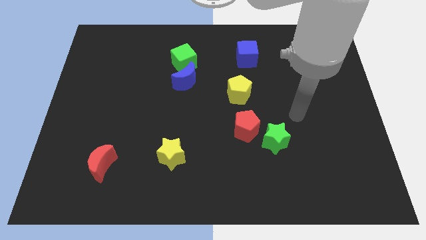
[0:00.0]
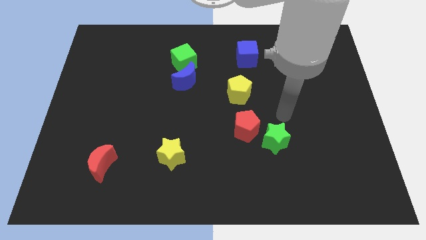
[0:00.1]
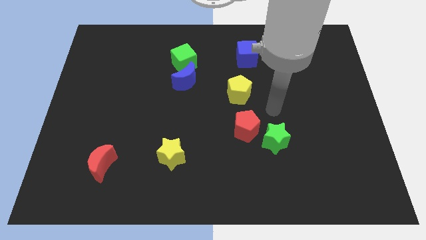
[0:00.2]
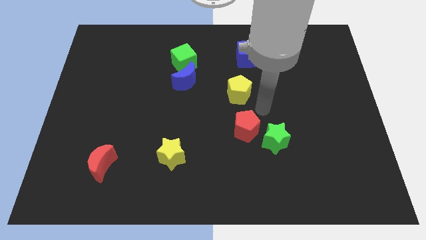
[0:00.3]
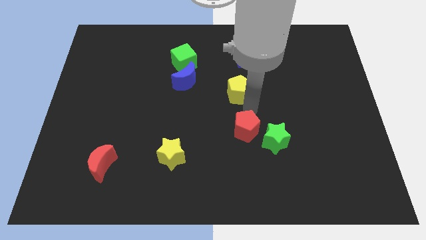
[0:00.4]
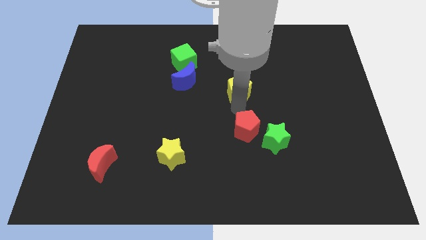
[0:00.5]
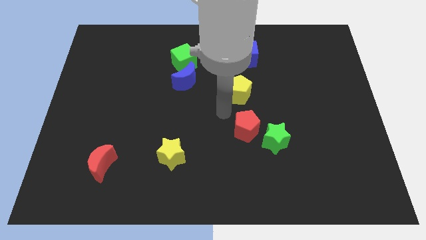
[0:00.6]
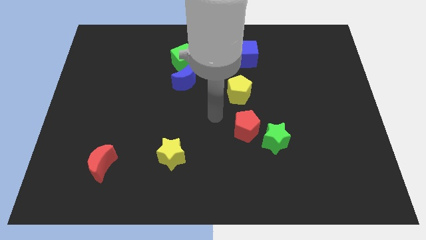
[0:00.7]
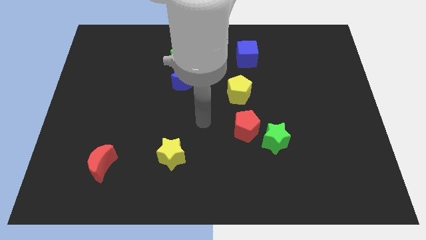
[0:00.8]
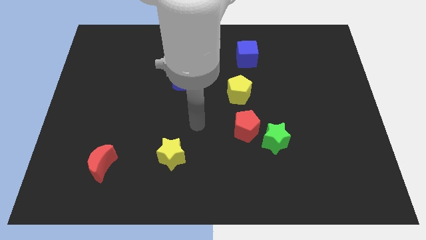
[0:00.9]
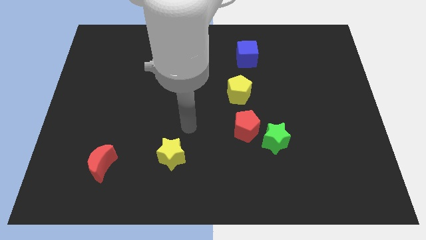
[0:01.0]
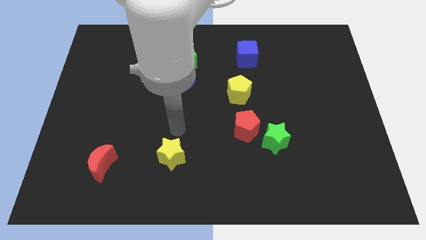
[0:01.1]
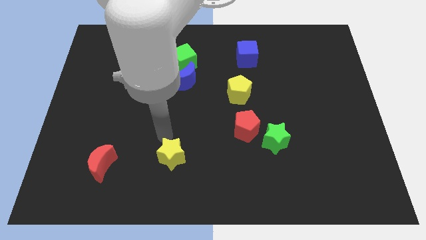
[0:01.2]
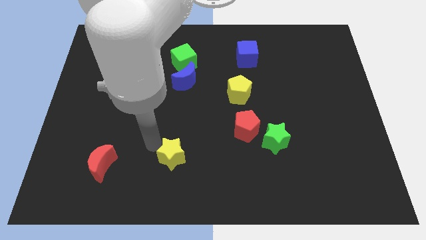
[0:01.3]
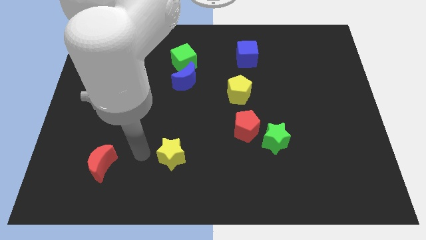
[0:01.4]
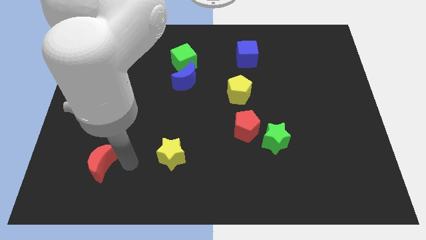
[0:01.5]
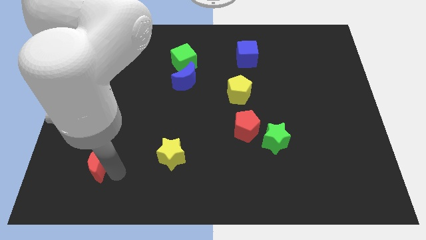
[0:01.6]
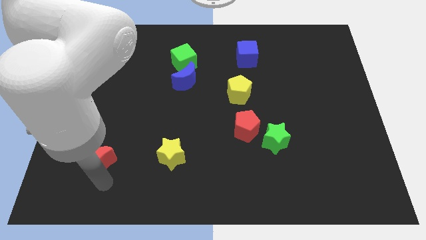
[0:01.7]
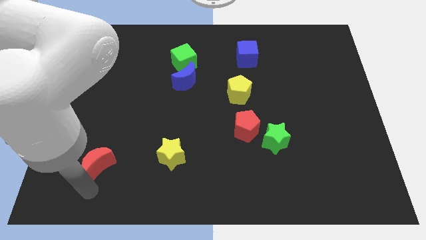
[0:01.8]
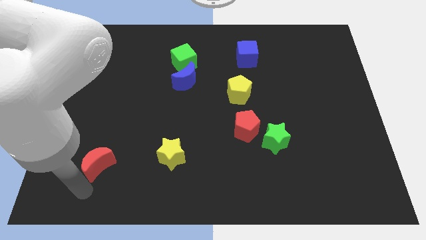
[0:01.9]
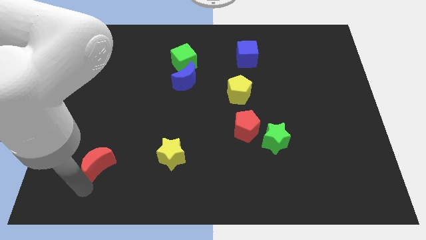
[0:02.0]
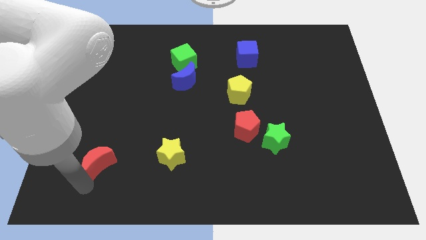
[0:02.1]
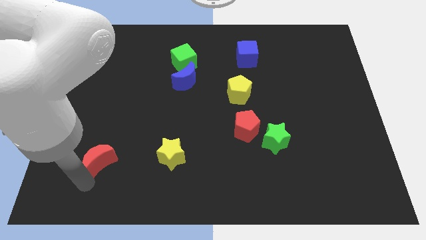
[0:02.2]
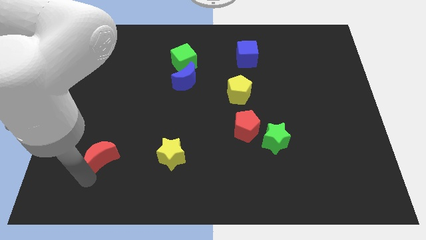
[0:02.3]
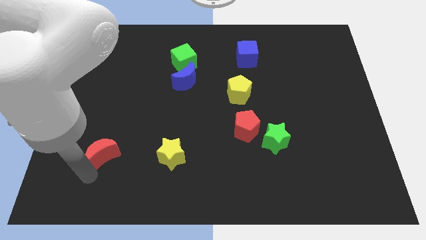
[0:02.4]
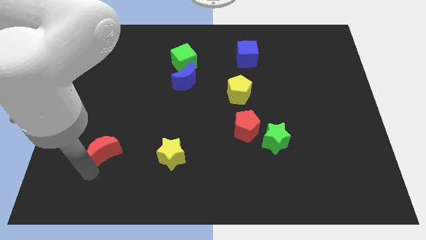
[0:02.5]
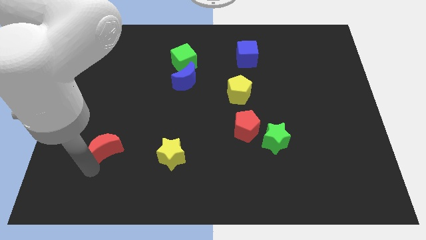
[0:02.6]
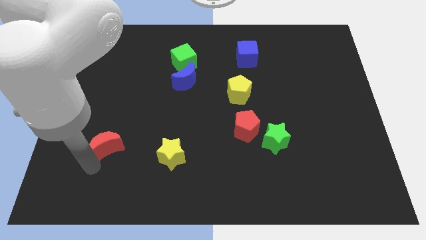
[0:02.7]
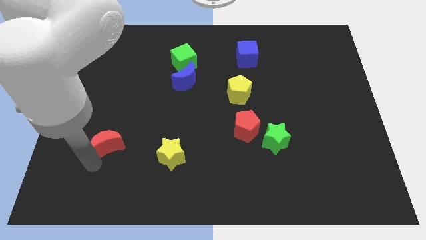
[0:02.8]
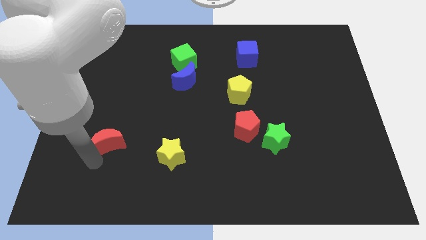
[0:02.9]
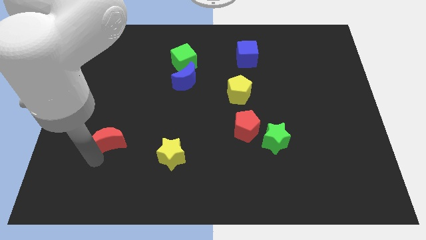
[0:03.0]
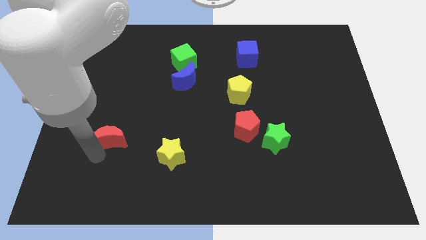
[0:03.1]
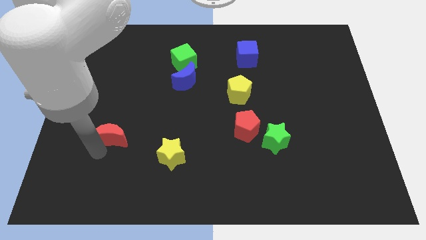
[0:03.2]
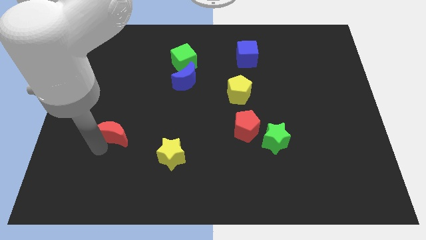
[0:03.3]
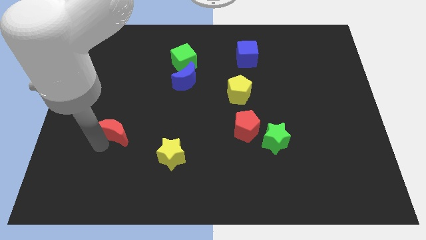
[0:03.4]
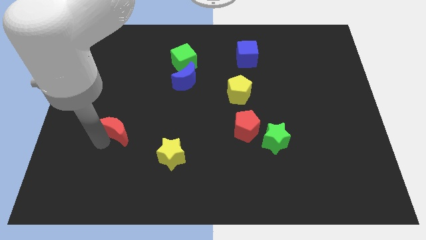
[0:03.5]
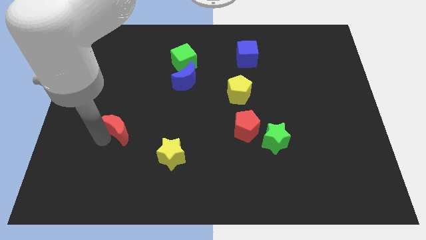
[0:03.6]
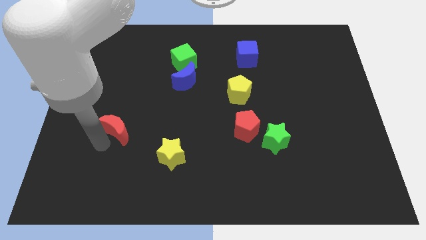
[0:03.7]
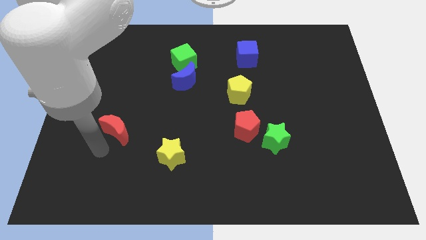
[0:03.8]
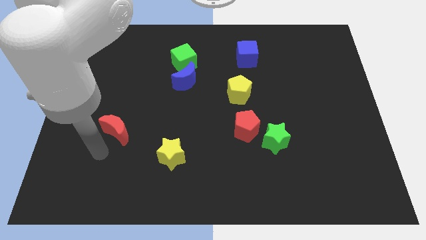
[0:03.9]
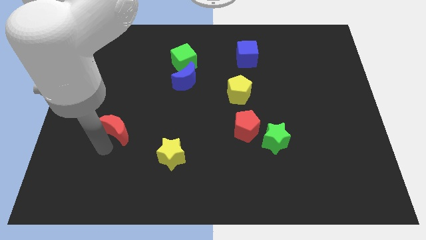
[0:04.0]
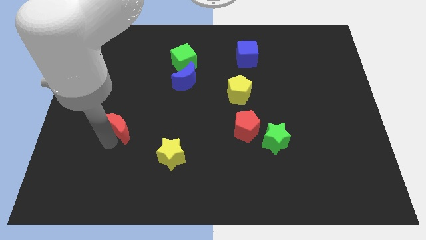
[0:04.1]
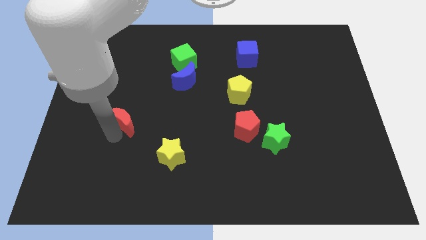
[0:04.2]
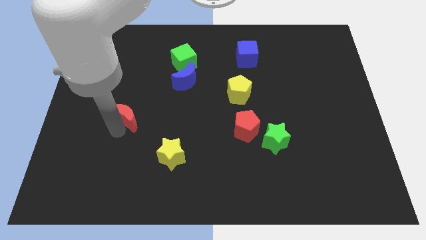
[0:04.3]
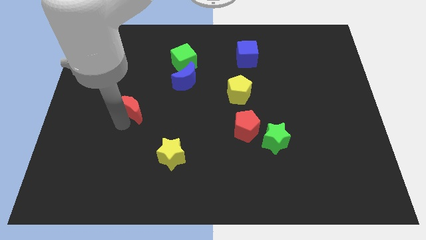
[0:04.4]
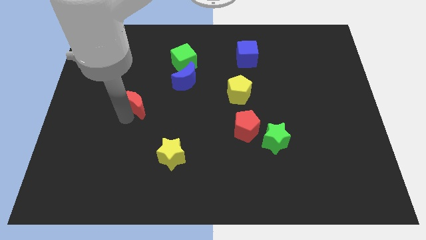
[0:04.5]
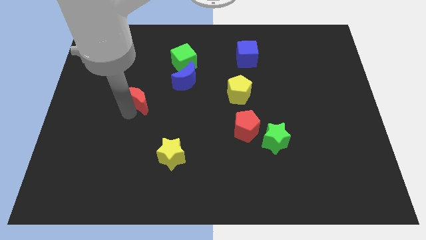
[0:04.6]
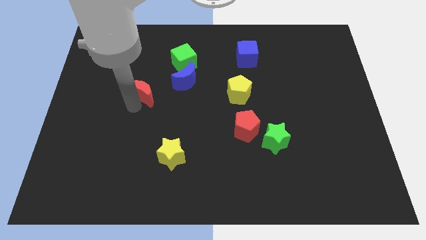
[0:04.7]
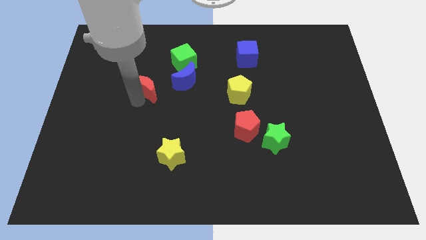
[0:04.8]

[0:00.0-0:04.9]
put the red moon diagonally down and to the left of the green cube

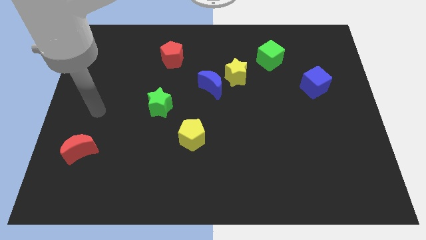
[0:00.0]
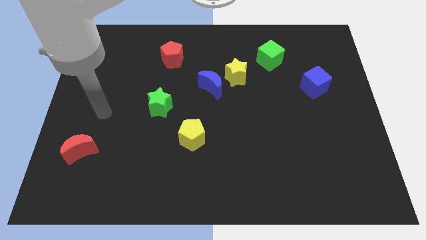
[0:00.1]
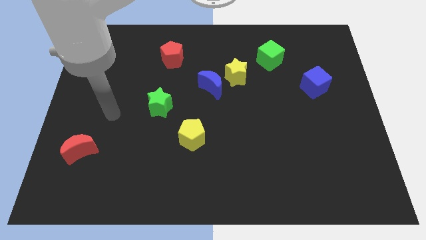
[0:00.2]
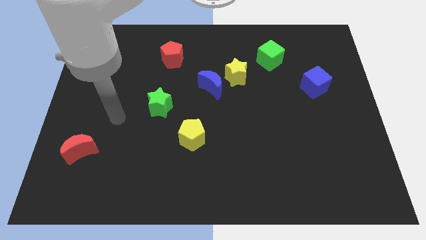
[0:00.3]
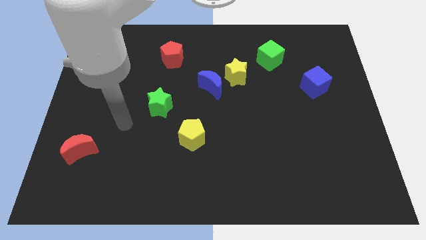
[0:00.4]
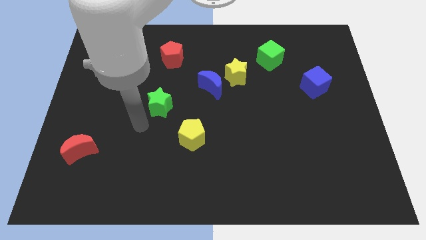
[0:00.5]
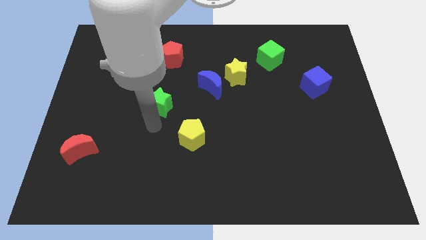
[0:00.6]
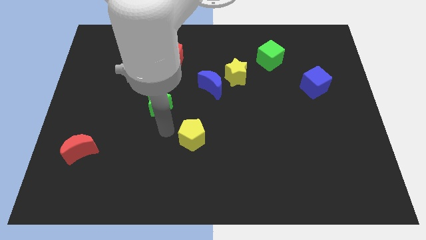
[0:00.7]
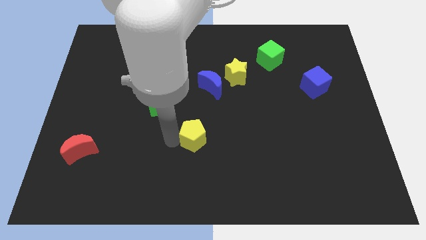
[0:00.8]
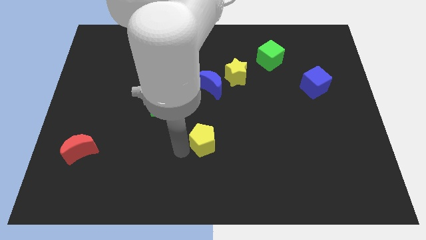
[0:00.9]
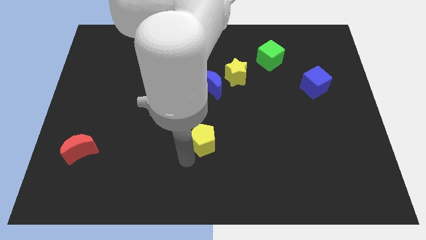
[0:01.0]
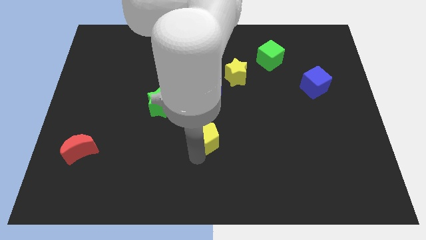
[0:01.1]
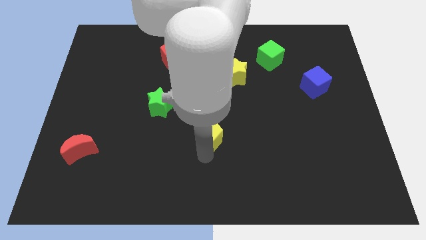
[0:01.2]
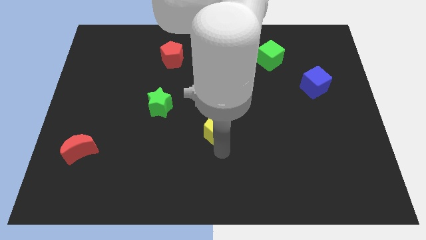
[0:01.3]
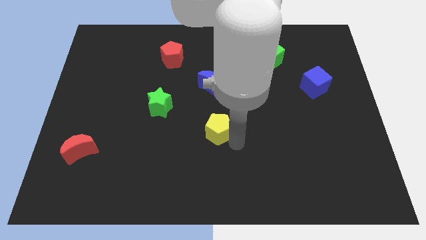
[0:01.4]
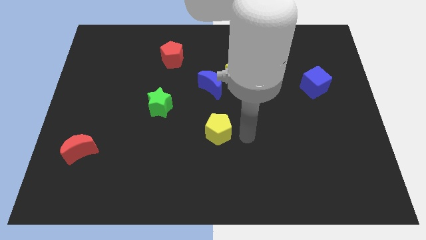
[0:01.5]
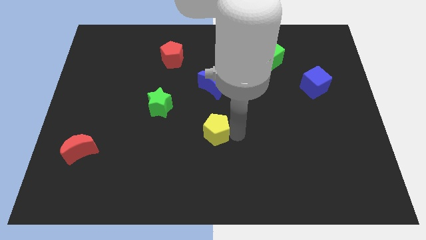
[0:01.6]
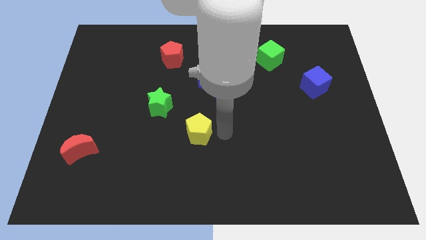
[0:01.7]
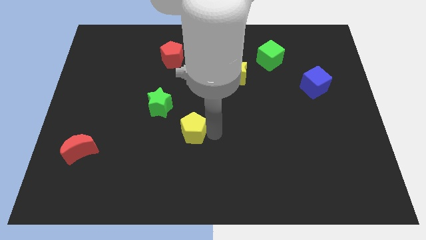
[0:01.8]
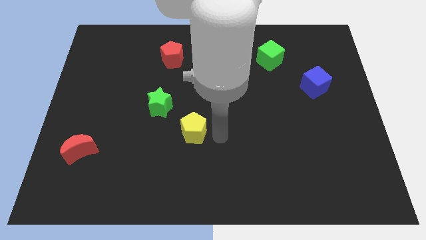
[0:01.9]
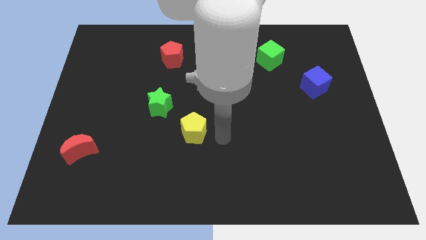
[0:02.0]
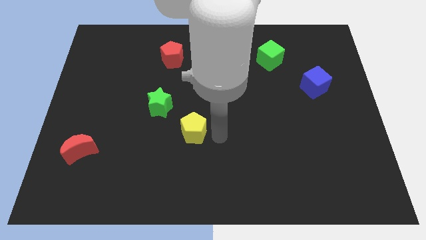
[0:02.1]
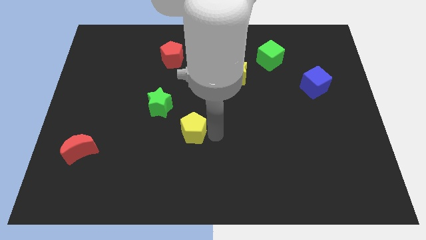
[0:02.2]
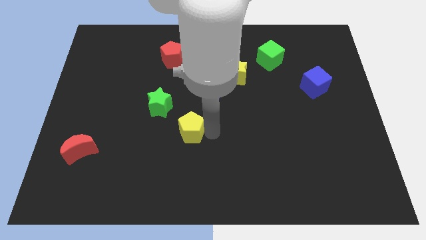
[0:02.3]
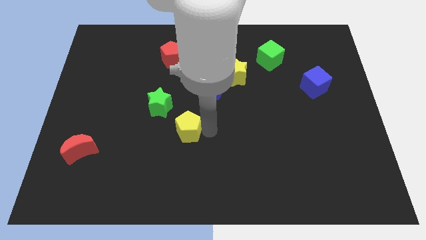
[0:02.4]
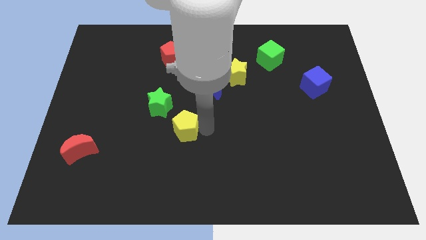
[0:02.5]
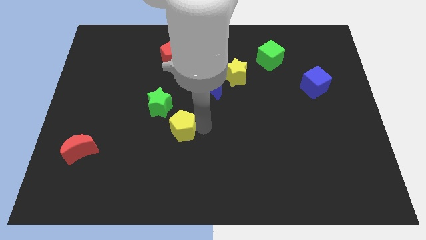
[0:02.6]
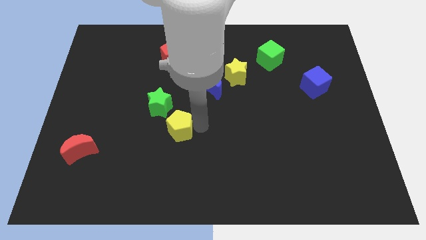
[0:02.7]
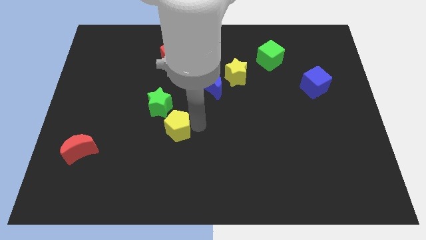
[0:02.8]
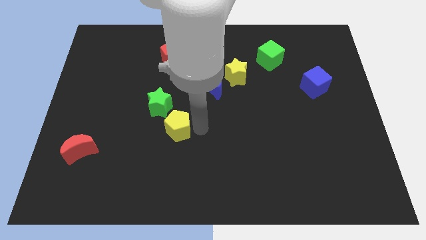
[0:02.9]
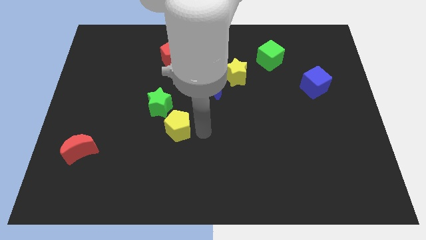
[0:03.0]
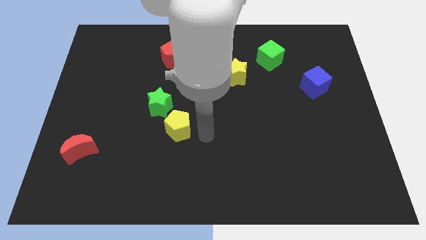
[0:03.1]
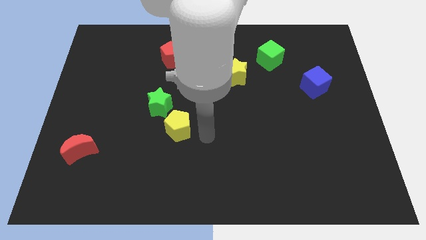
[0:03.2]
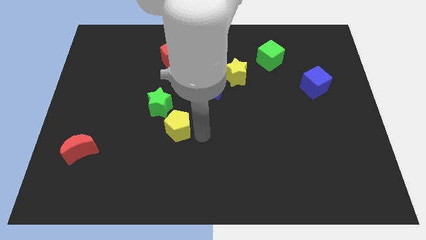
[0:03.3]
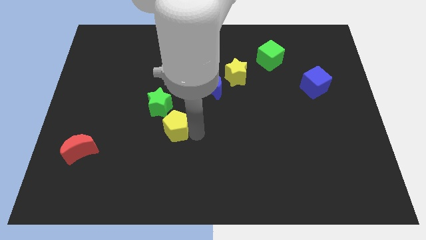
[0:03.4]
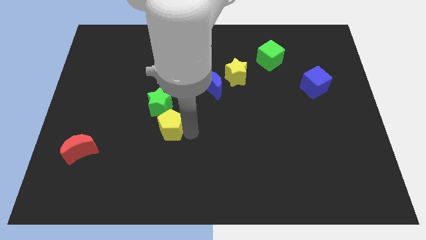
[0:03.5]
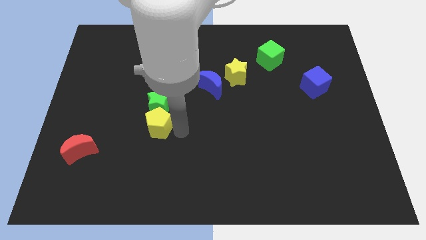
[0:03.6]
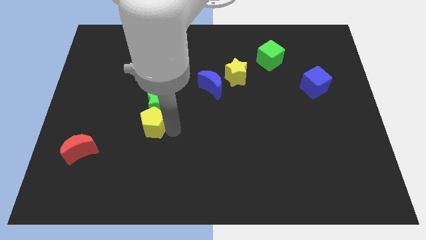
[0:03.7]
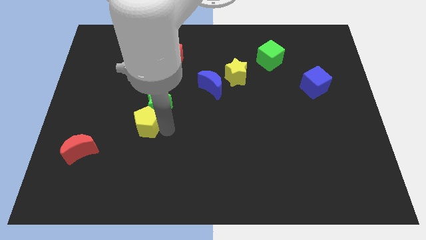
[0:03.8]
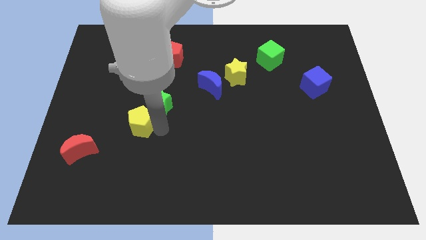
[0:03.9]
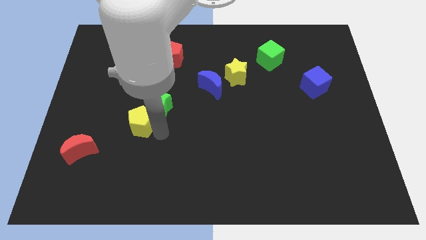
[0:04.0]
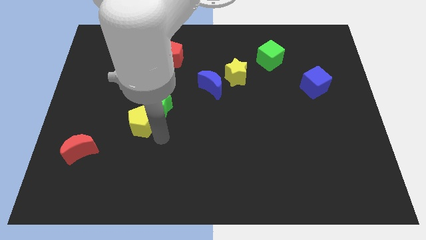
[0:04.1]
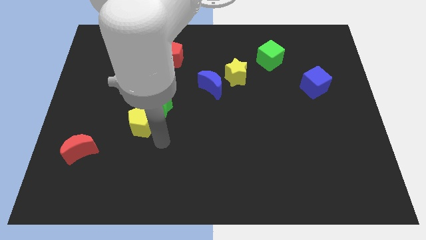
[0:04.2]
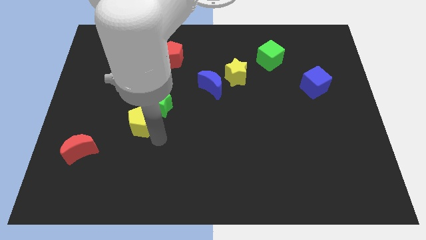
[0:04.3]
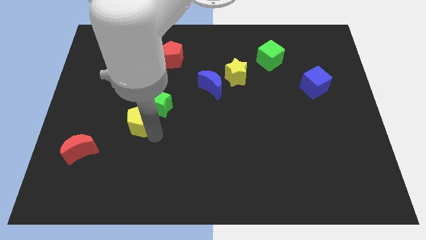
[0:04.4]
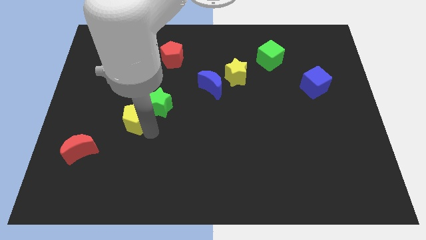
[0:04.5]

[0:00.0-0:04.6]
move the yellow pentagon just left of the green star
